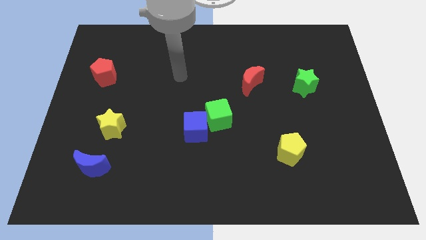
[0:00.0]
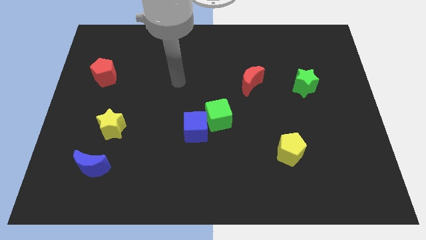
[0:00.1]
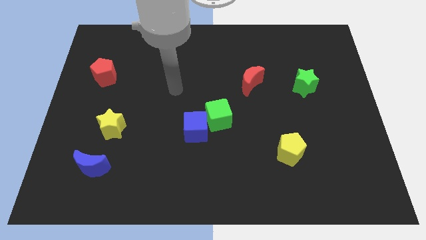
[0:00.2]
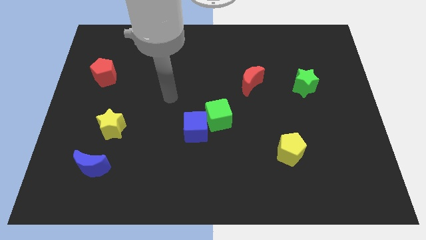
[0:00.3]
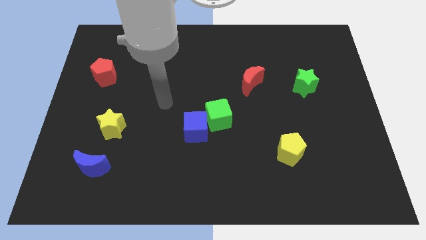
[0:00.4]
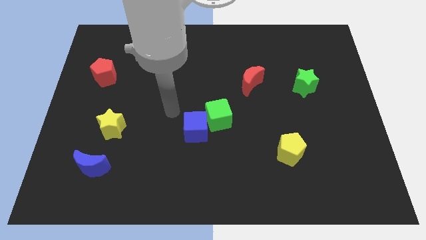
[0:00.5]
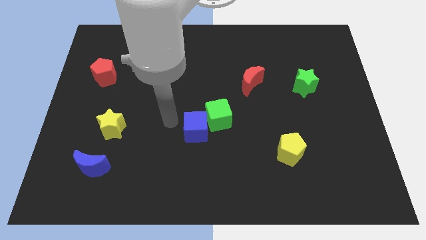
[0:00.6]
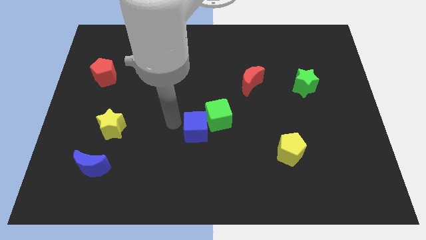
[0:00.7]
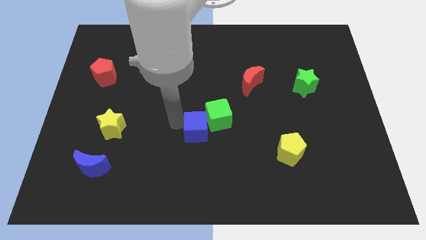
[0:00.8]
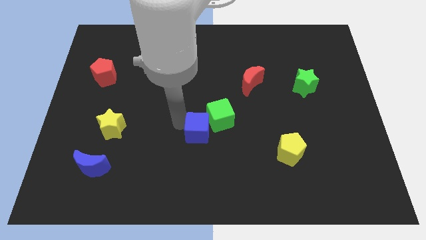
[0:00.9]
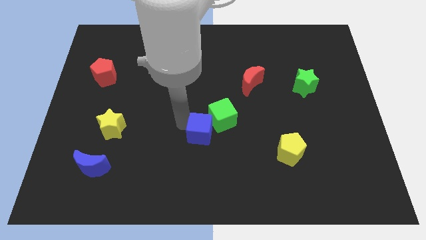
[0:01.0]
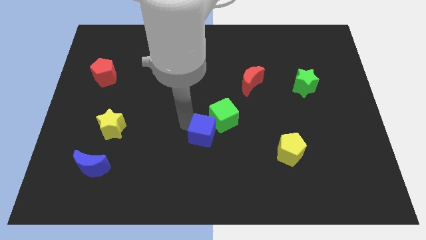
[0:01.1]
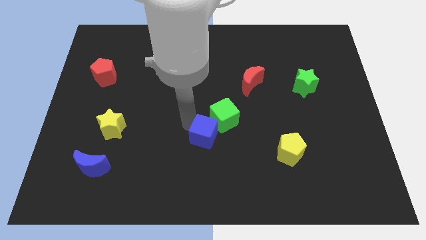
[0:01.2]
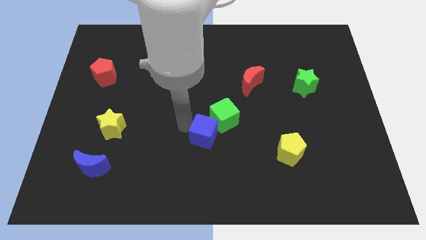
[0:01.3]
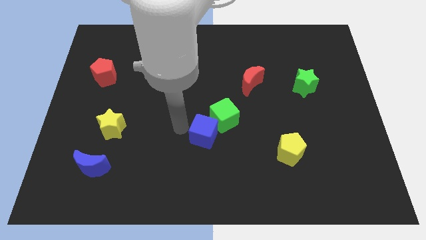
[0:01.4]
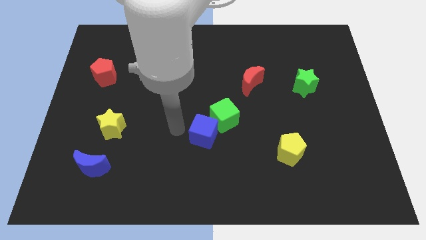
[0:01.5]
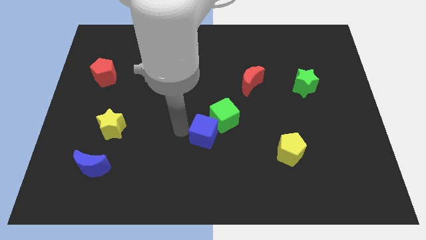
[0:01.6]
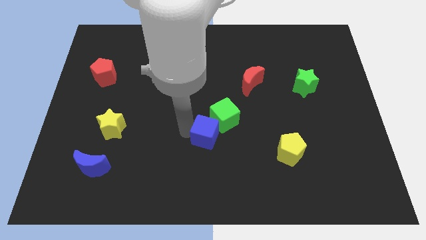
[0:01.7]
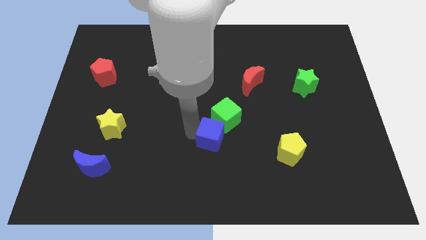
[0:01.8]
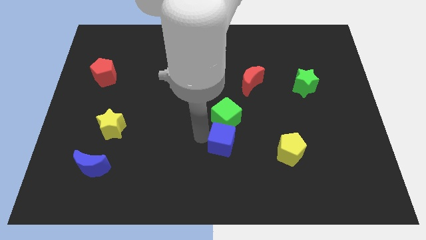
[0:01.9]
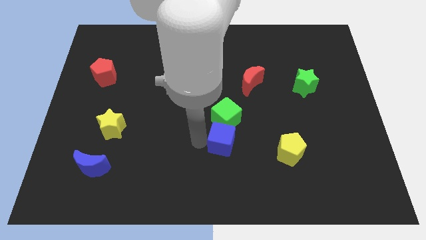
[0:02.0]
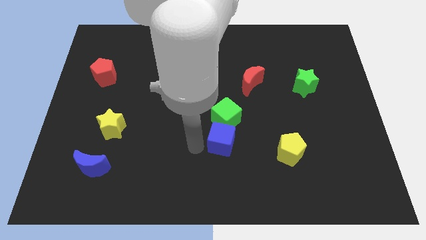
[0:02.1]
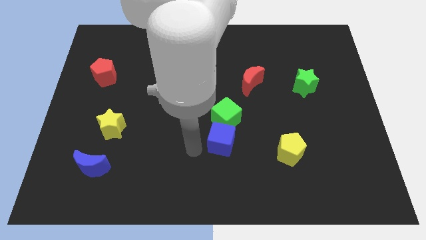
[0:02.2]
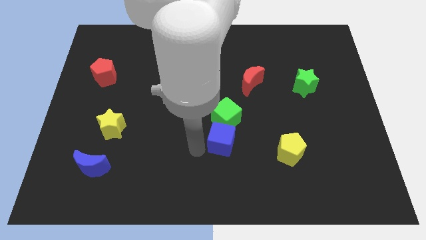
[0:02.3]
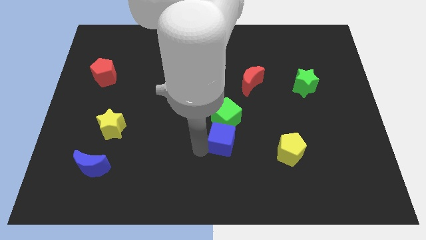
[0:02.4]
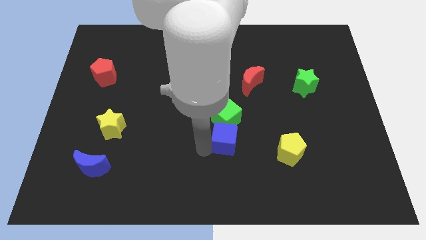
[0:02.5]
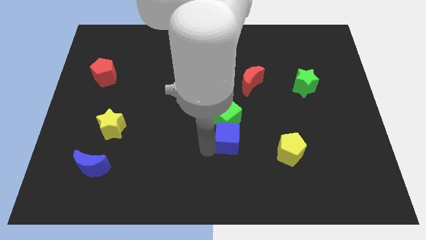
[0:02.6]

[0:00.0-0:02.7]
slightly move the blue cube to the right

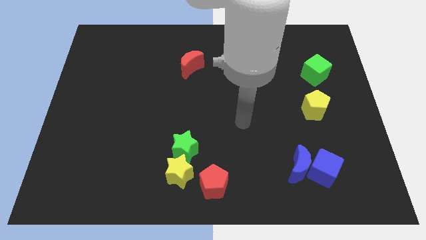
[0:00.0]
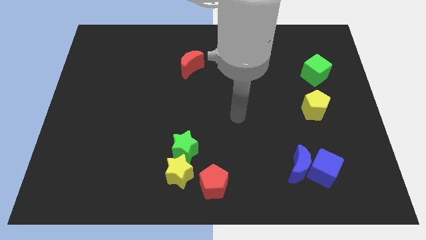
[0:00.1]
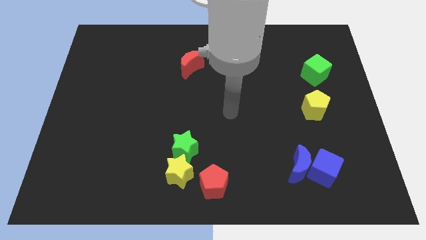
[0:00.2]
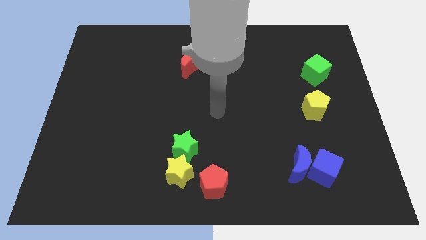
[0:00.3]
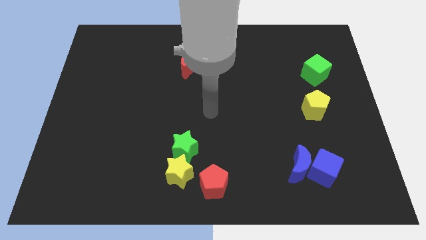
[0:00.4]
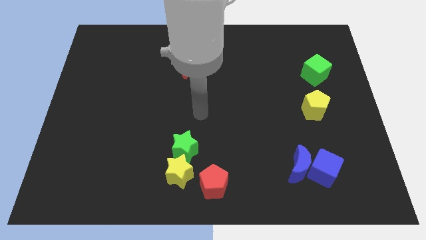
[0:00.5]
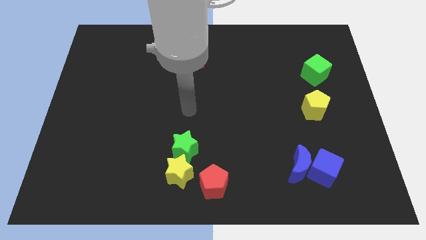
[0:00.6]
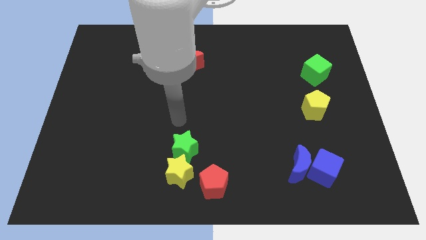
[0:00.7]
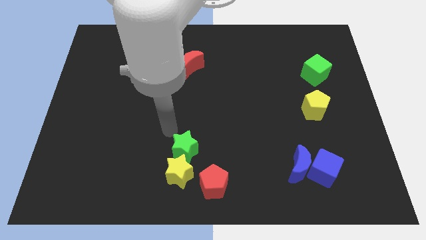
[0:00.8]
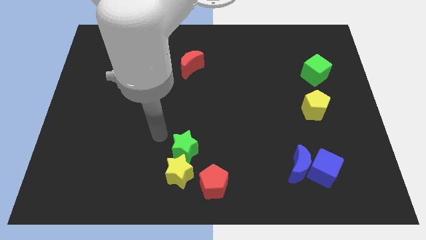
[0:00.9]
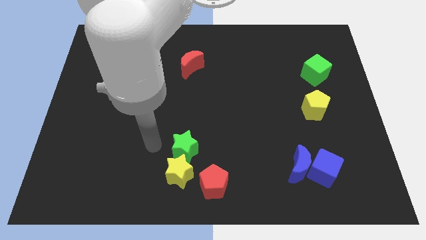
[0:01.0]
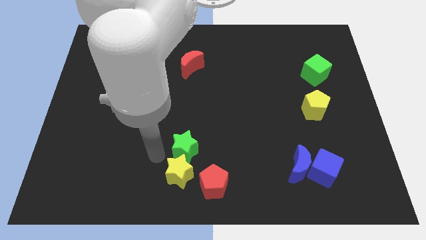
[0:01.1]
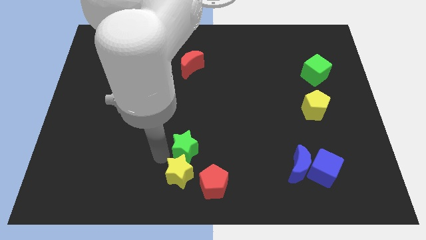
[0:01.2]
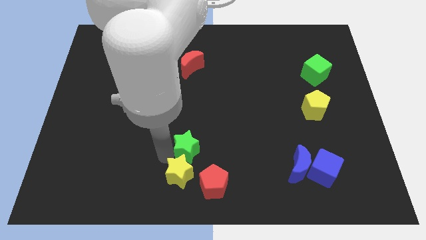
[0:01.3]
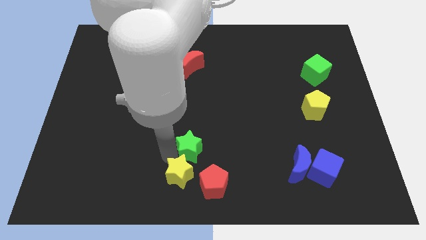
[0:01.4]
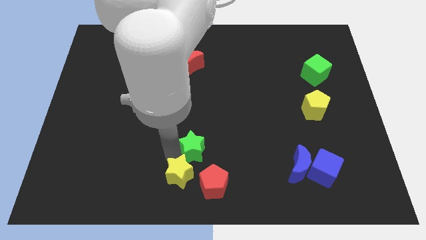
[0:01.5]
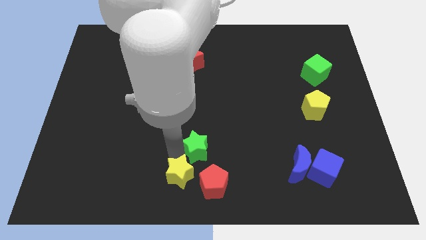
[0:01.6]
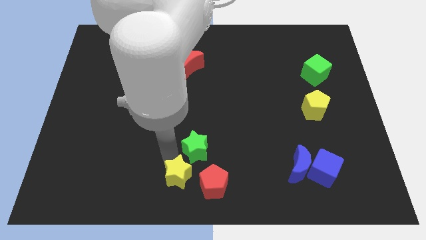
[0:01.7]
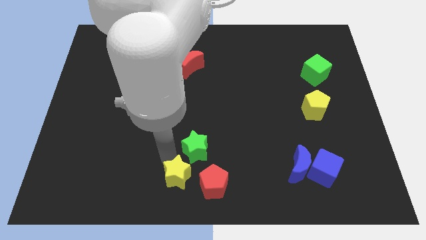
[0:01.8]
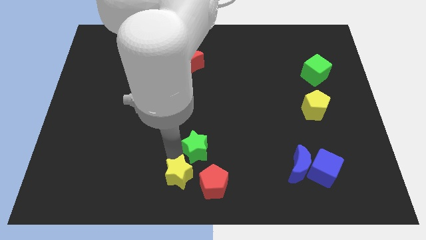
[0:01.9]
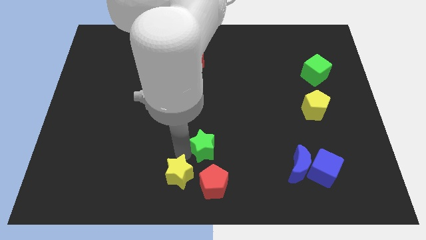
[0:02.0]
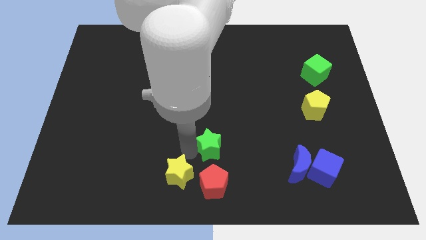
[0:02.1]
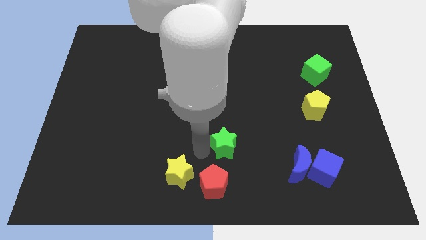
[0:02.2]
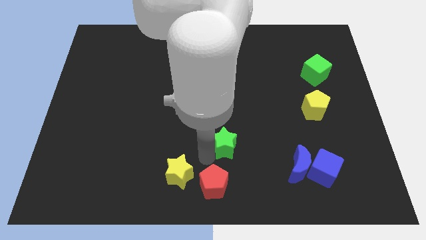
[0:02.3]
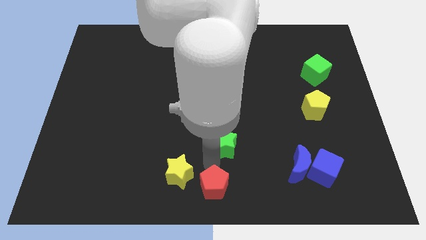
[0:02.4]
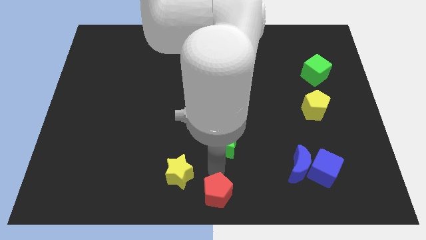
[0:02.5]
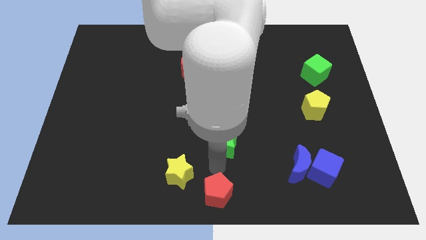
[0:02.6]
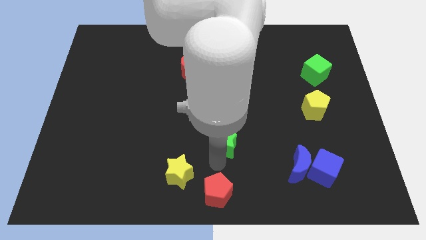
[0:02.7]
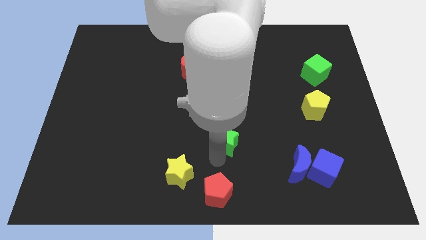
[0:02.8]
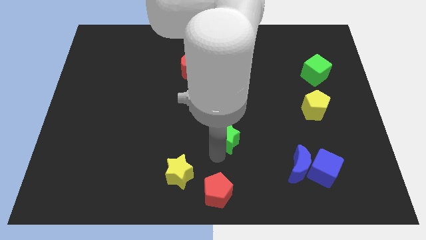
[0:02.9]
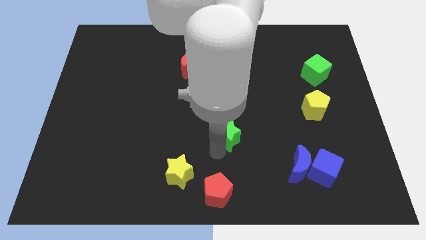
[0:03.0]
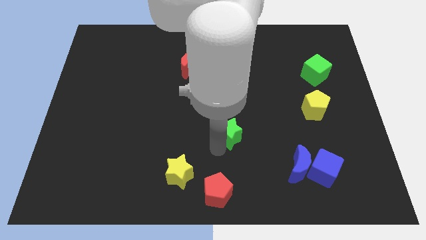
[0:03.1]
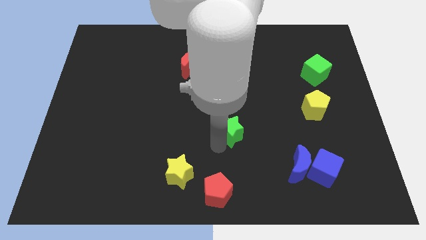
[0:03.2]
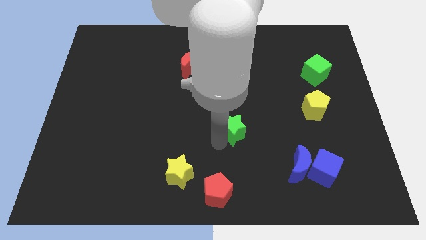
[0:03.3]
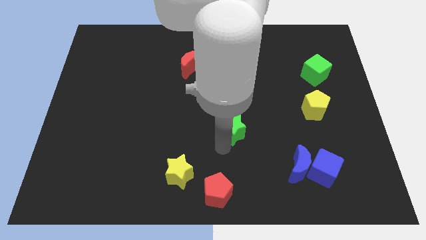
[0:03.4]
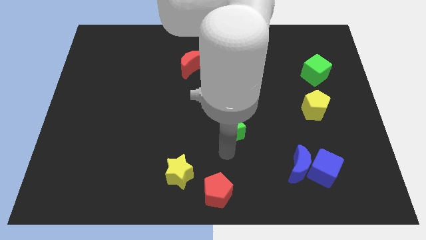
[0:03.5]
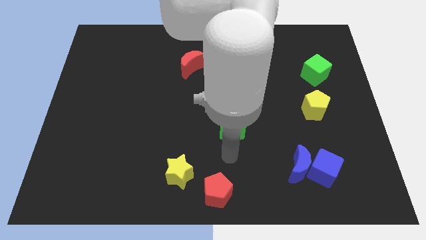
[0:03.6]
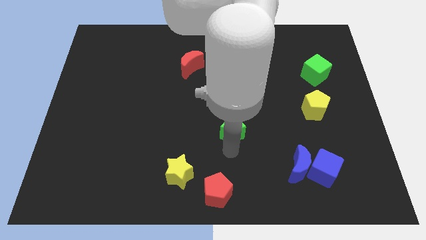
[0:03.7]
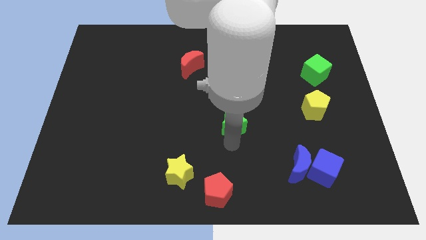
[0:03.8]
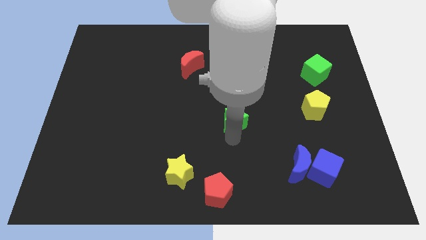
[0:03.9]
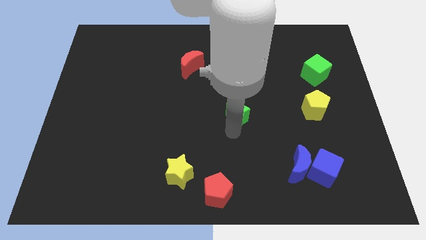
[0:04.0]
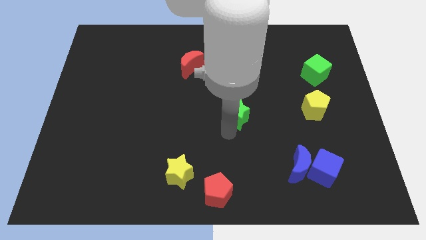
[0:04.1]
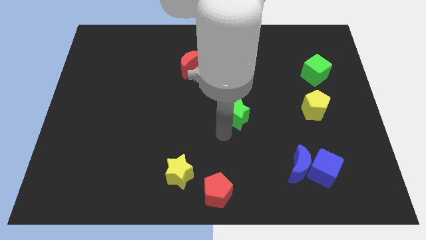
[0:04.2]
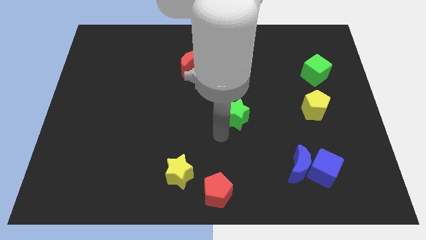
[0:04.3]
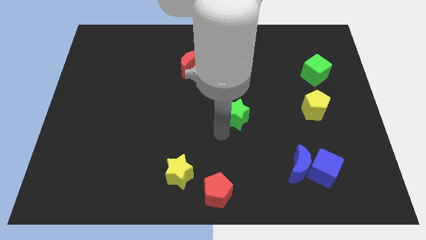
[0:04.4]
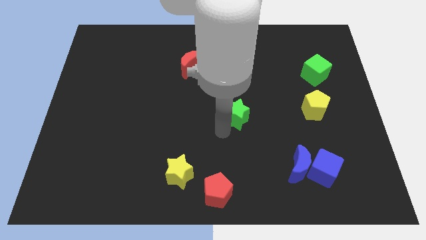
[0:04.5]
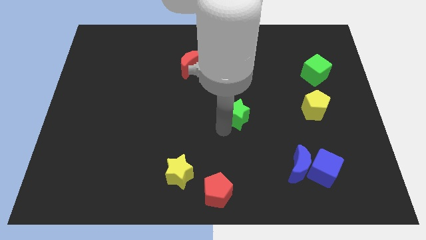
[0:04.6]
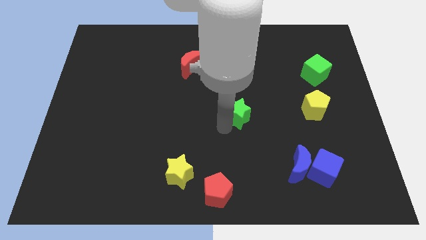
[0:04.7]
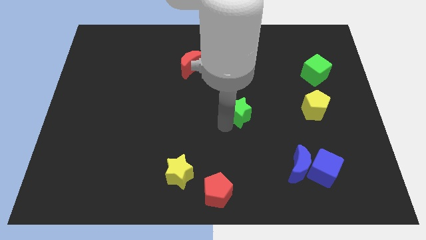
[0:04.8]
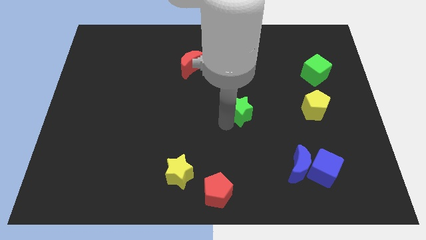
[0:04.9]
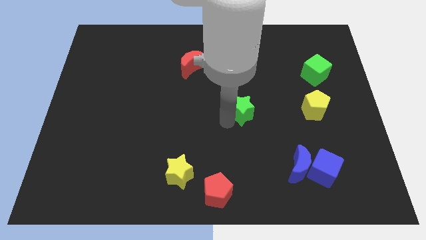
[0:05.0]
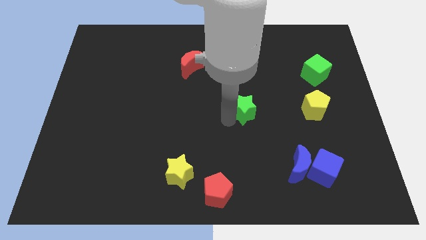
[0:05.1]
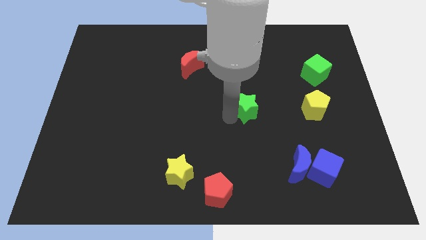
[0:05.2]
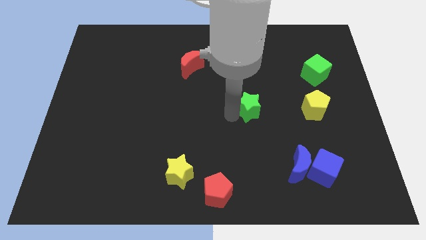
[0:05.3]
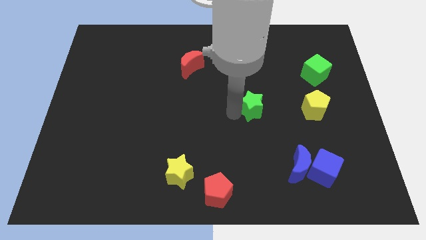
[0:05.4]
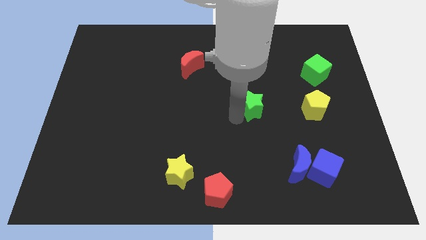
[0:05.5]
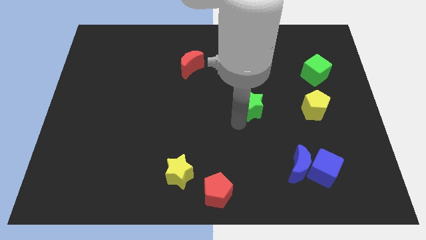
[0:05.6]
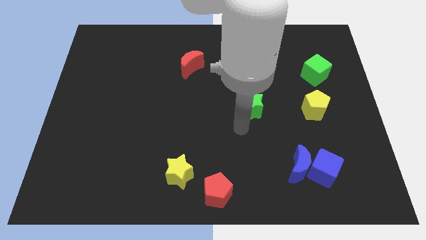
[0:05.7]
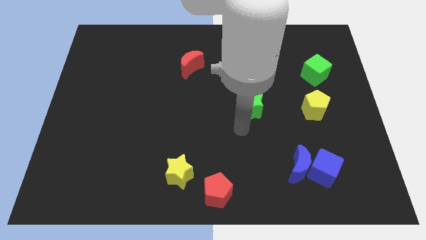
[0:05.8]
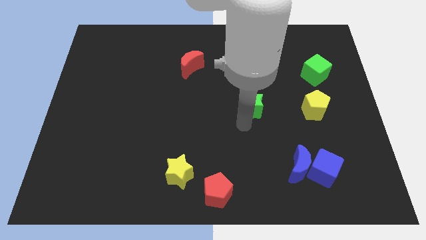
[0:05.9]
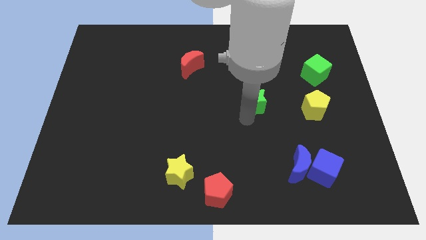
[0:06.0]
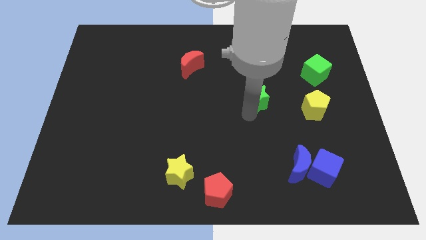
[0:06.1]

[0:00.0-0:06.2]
push the green star up and right diagonally
